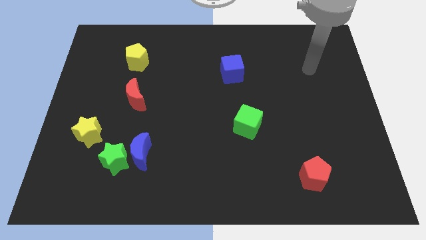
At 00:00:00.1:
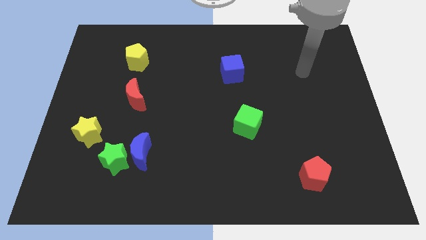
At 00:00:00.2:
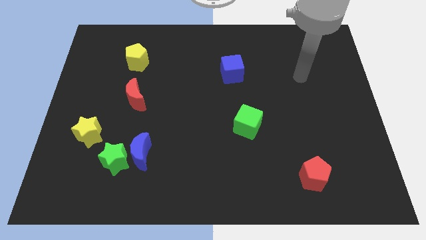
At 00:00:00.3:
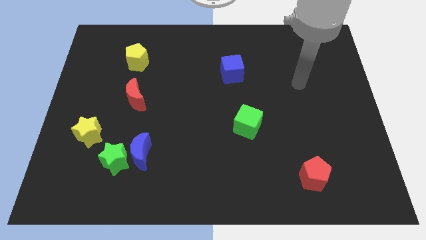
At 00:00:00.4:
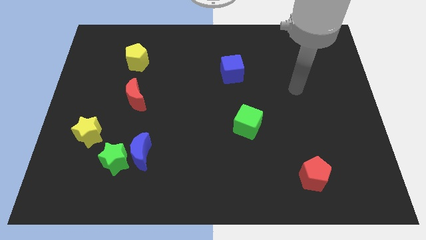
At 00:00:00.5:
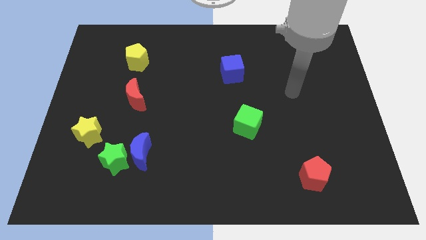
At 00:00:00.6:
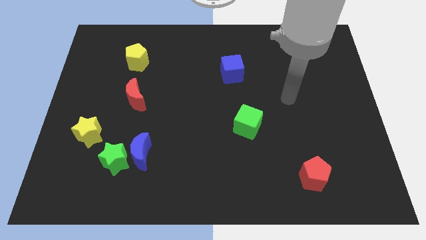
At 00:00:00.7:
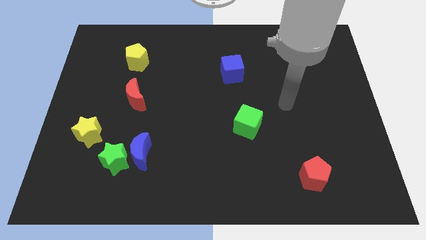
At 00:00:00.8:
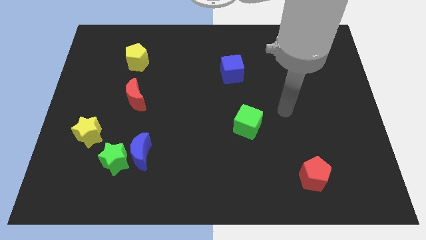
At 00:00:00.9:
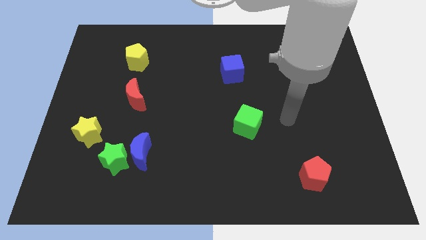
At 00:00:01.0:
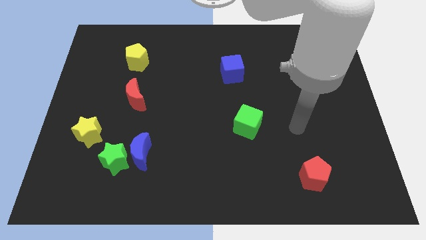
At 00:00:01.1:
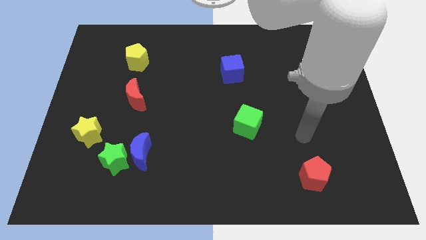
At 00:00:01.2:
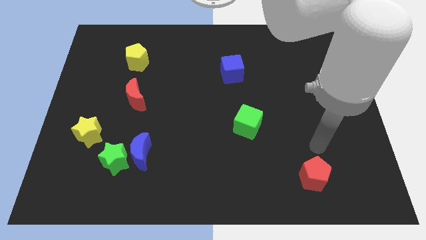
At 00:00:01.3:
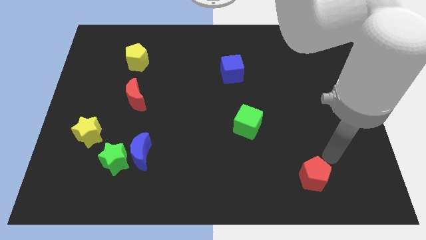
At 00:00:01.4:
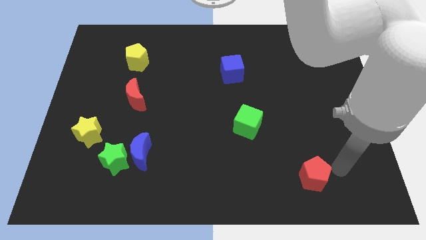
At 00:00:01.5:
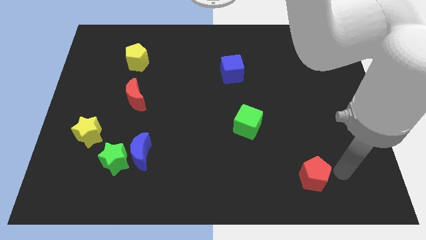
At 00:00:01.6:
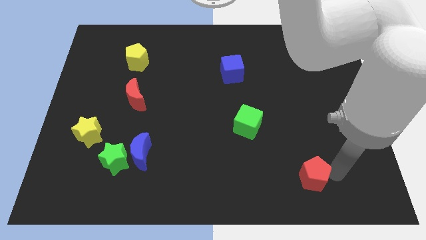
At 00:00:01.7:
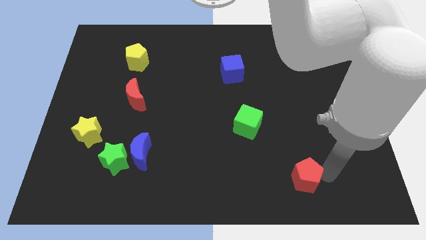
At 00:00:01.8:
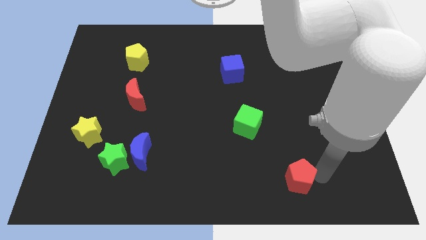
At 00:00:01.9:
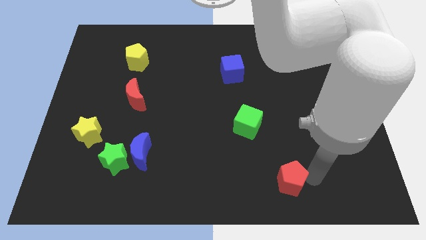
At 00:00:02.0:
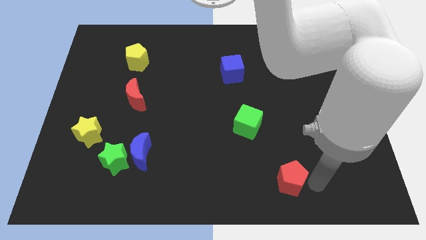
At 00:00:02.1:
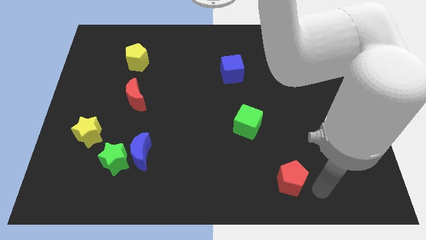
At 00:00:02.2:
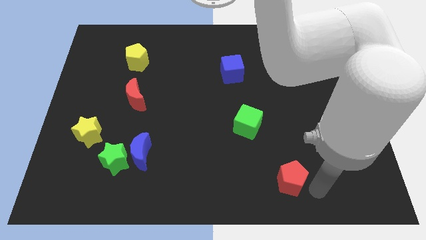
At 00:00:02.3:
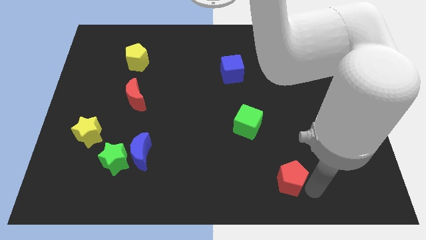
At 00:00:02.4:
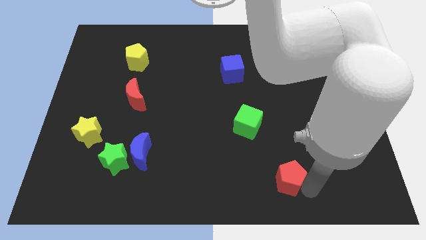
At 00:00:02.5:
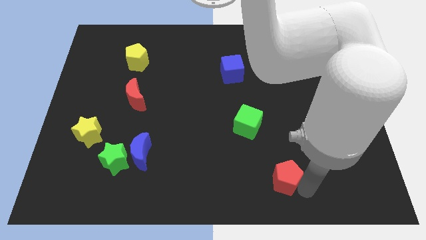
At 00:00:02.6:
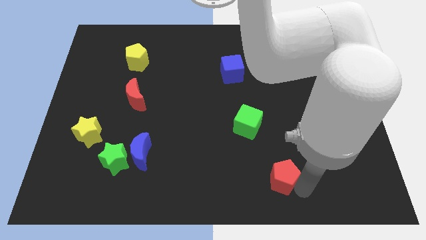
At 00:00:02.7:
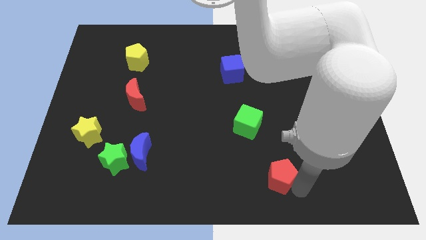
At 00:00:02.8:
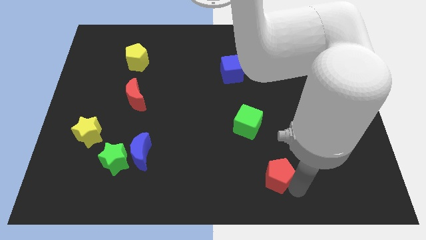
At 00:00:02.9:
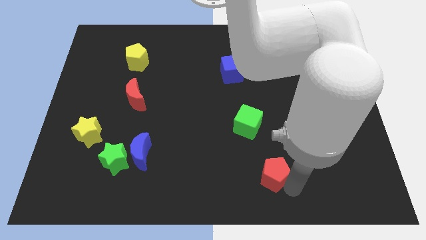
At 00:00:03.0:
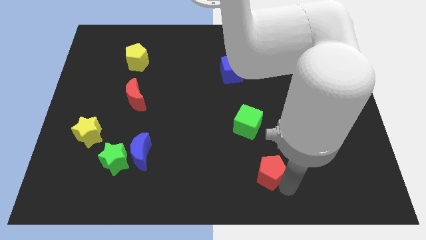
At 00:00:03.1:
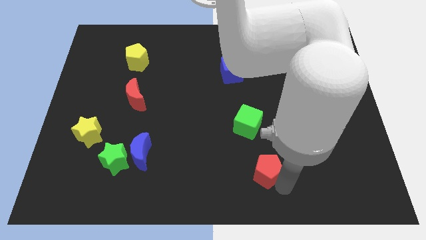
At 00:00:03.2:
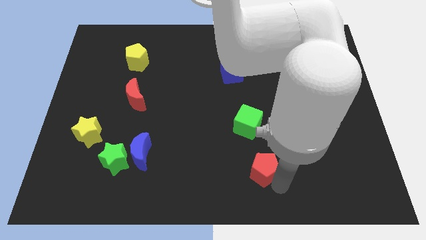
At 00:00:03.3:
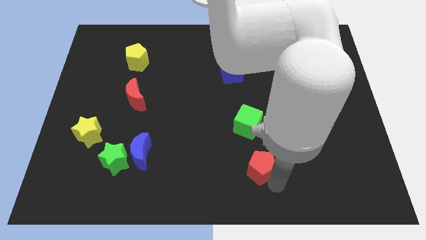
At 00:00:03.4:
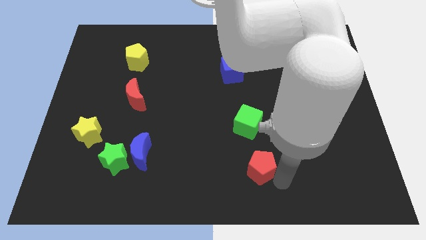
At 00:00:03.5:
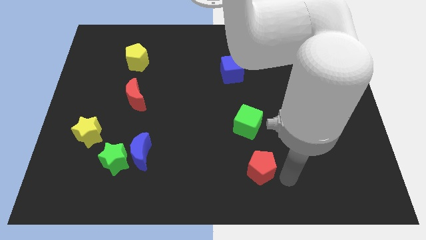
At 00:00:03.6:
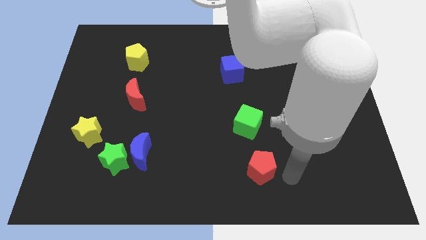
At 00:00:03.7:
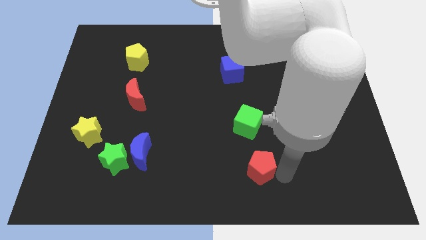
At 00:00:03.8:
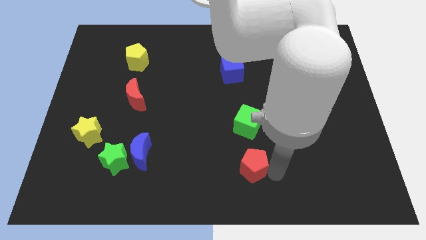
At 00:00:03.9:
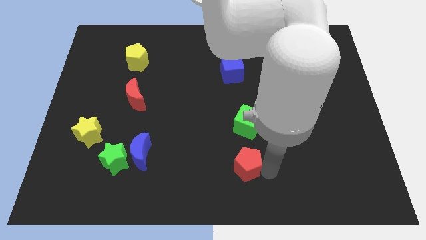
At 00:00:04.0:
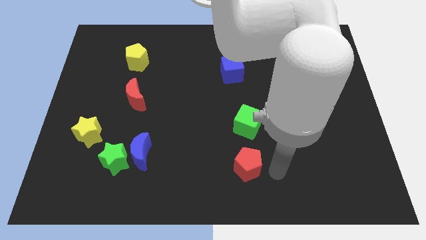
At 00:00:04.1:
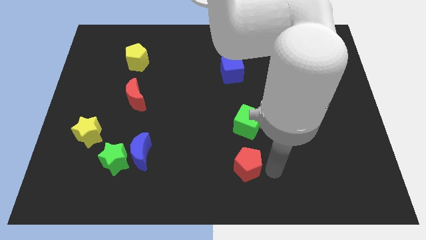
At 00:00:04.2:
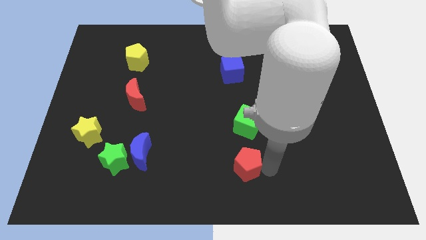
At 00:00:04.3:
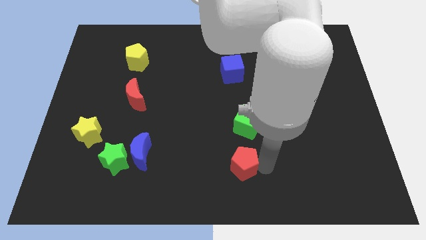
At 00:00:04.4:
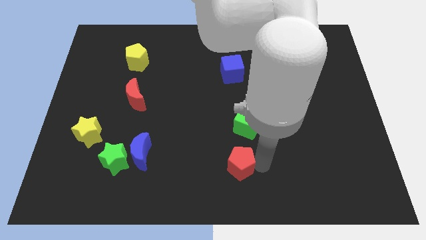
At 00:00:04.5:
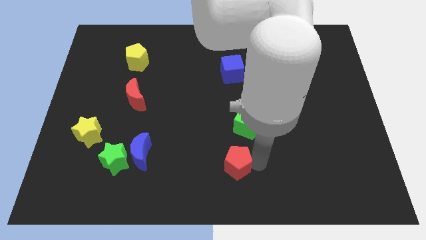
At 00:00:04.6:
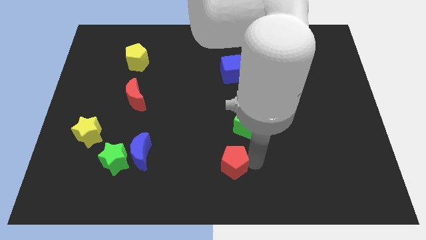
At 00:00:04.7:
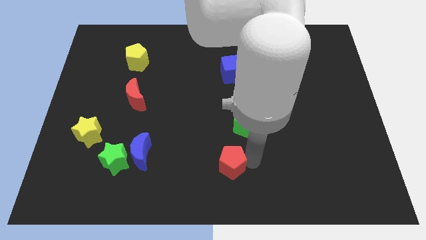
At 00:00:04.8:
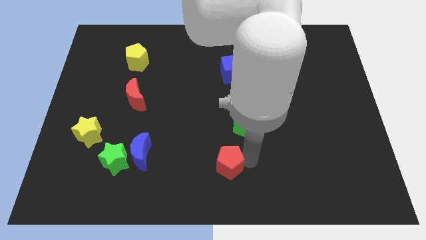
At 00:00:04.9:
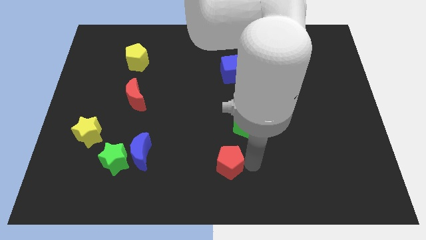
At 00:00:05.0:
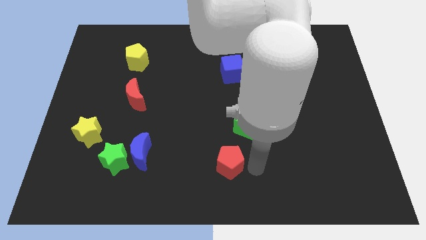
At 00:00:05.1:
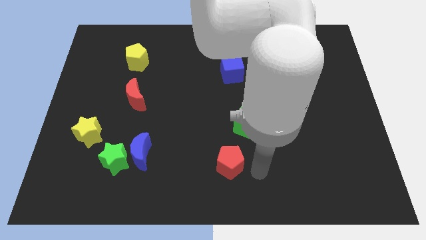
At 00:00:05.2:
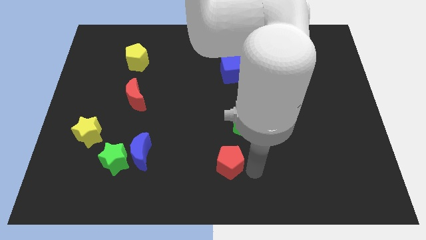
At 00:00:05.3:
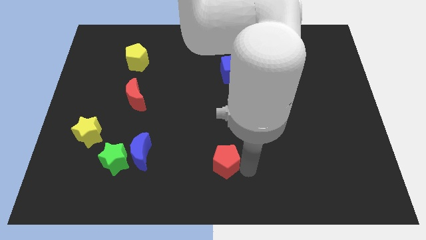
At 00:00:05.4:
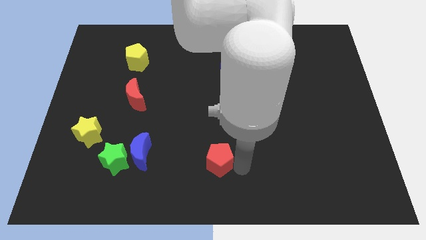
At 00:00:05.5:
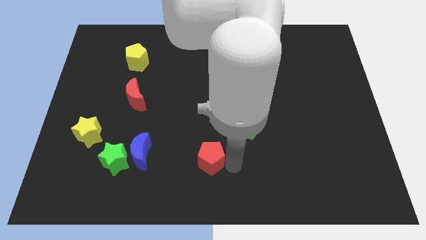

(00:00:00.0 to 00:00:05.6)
put the red pentagon just right of the blue moon

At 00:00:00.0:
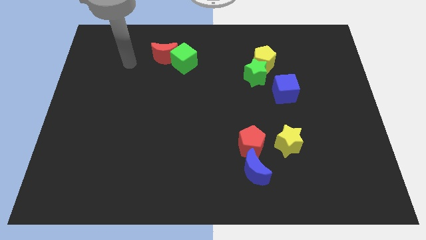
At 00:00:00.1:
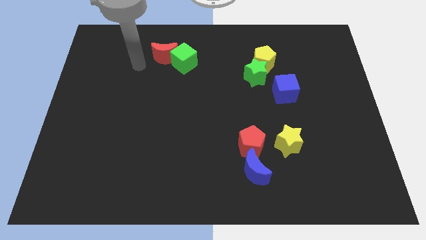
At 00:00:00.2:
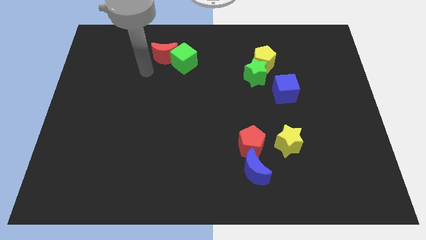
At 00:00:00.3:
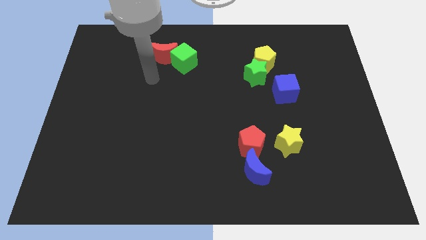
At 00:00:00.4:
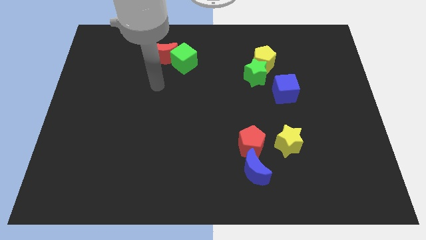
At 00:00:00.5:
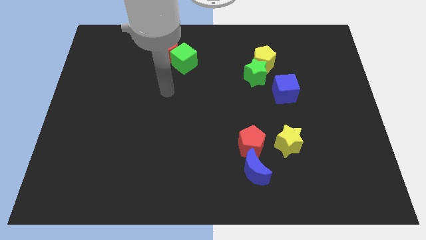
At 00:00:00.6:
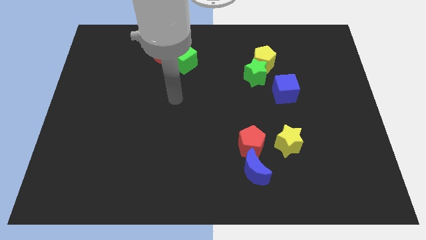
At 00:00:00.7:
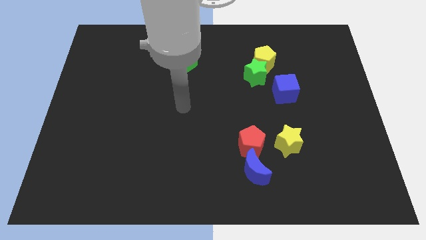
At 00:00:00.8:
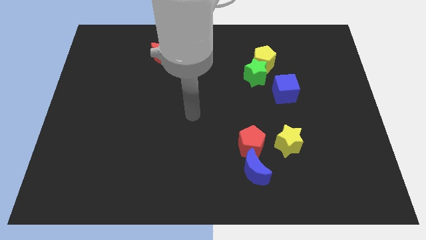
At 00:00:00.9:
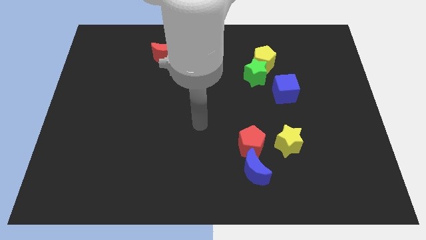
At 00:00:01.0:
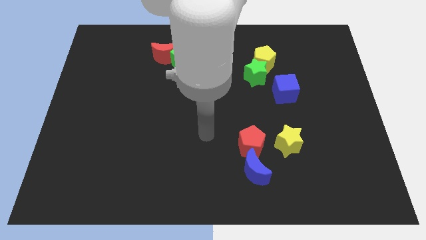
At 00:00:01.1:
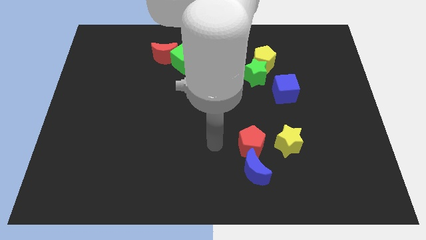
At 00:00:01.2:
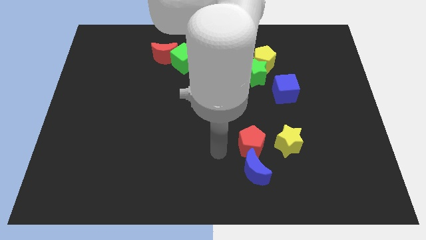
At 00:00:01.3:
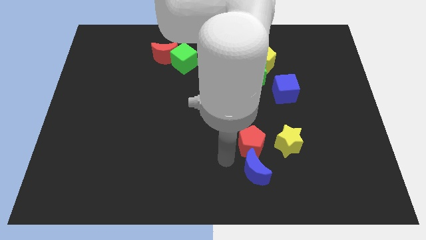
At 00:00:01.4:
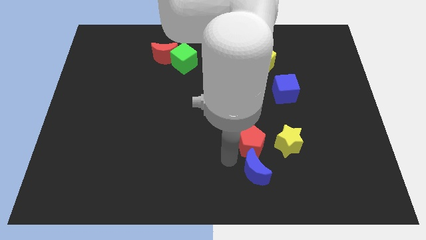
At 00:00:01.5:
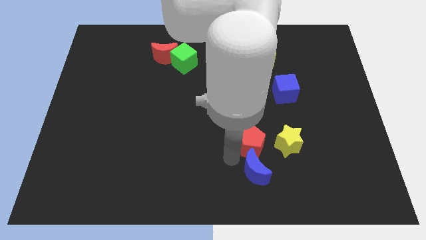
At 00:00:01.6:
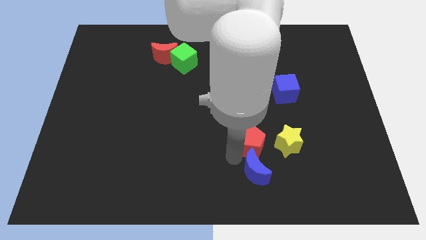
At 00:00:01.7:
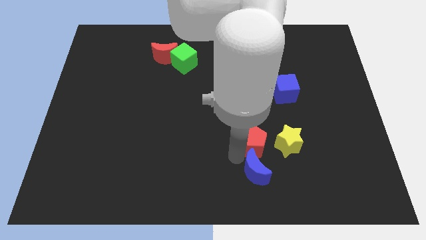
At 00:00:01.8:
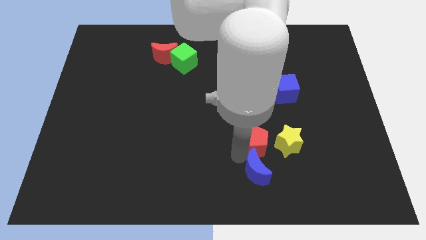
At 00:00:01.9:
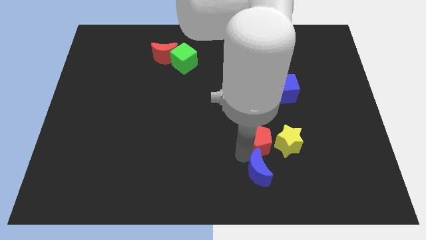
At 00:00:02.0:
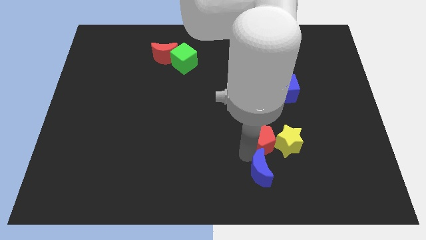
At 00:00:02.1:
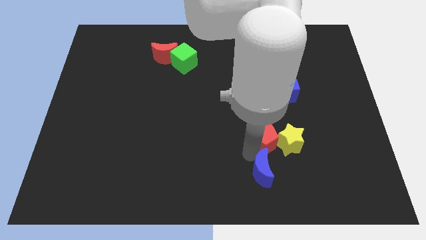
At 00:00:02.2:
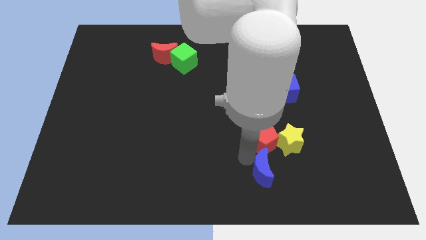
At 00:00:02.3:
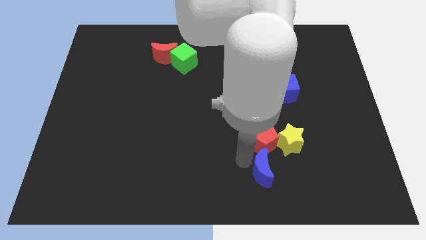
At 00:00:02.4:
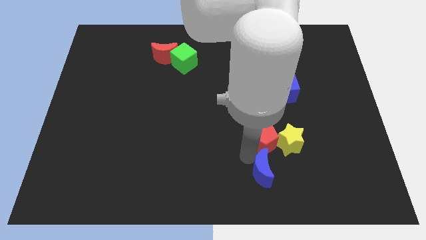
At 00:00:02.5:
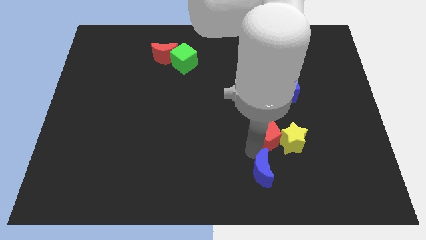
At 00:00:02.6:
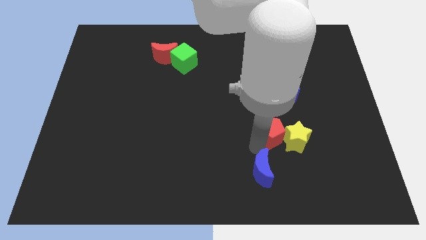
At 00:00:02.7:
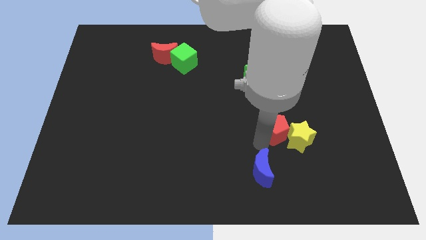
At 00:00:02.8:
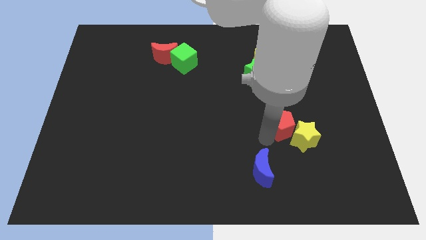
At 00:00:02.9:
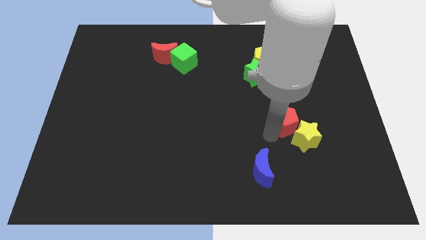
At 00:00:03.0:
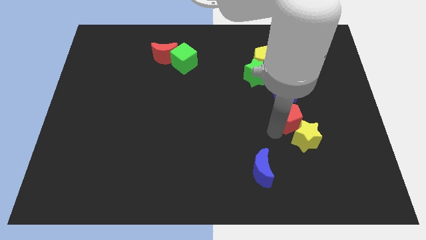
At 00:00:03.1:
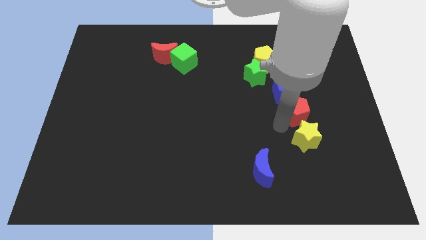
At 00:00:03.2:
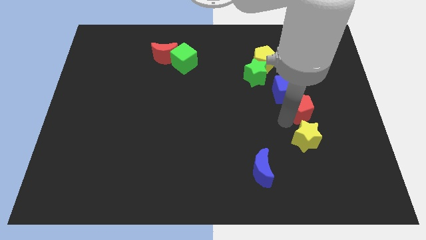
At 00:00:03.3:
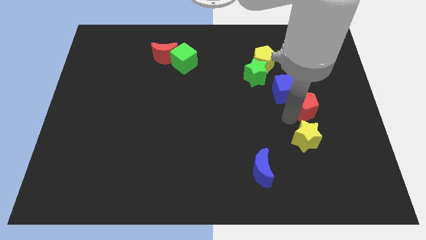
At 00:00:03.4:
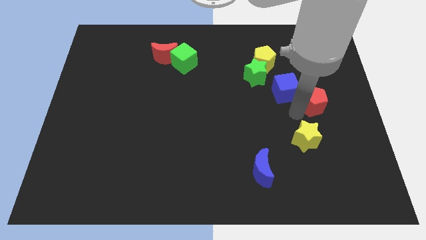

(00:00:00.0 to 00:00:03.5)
push the red pentagon to the right of the blue cube
